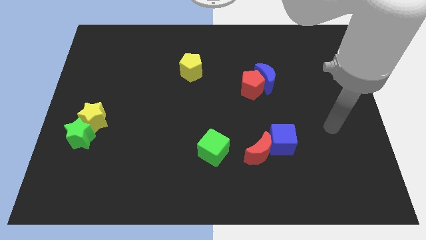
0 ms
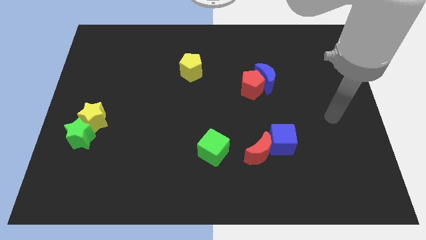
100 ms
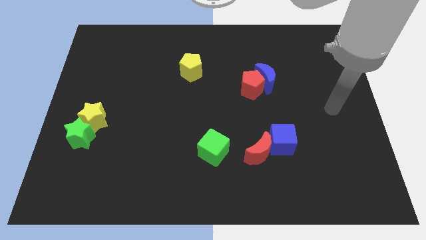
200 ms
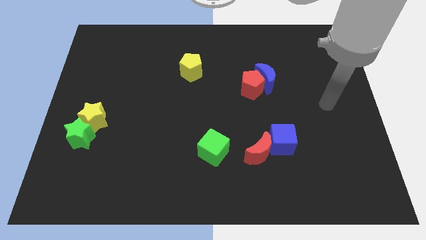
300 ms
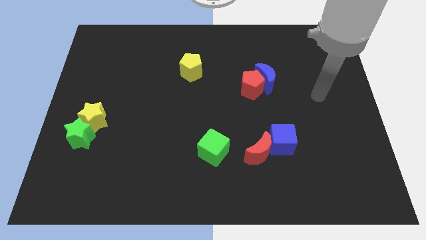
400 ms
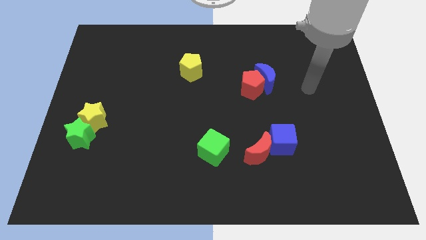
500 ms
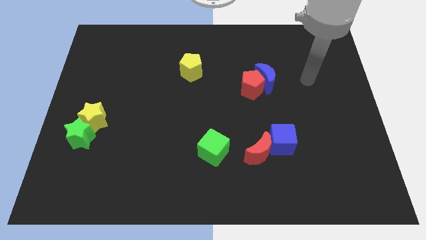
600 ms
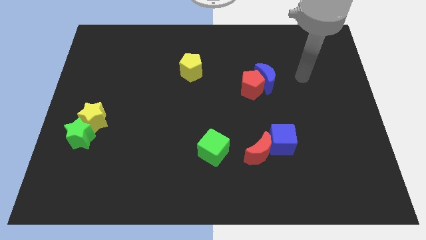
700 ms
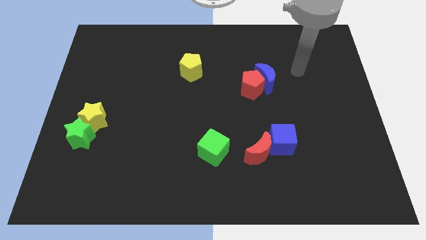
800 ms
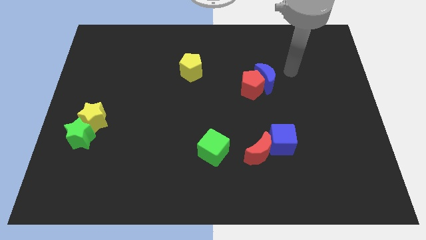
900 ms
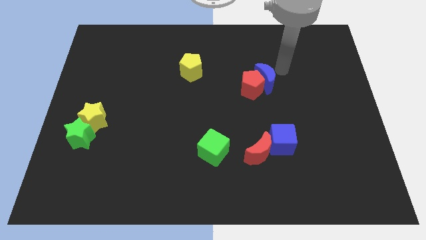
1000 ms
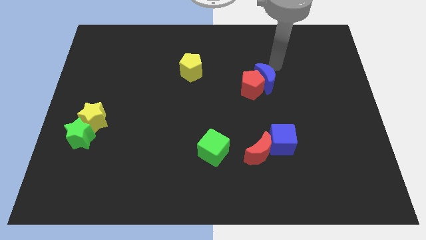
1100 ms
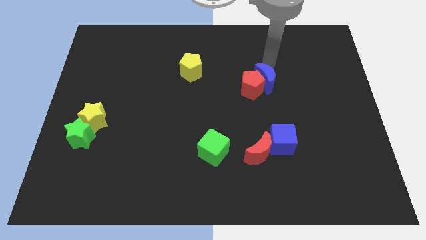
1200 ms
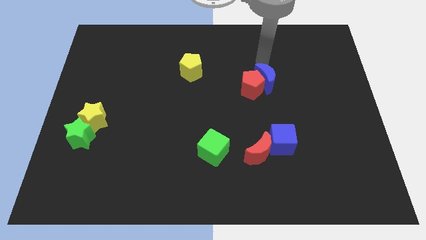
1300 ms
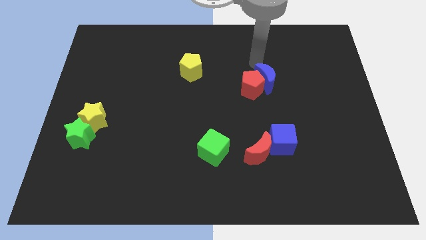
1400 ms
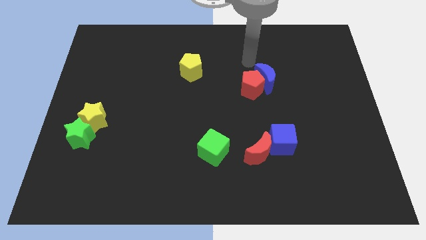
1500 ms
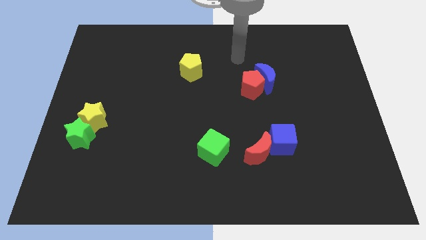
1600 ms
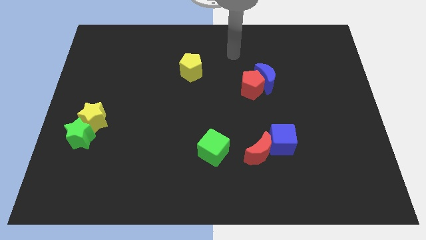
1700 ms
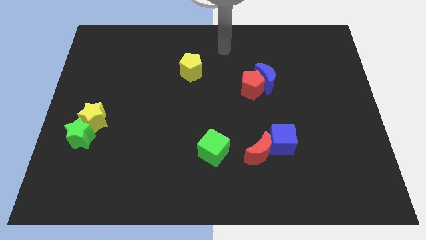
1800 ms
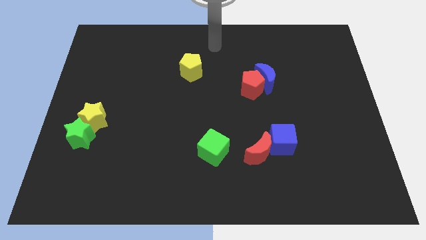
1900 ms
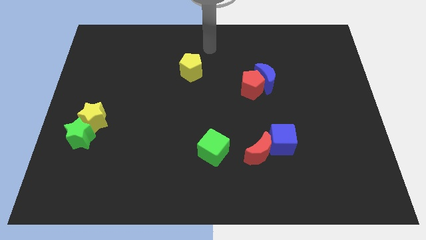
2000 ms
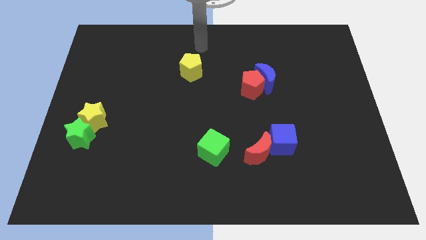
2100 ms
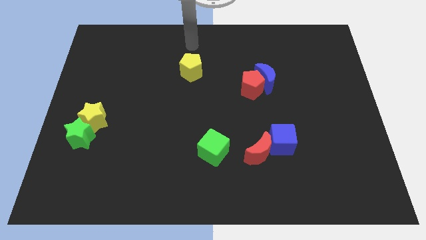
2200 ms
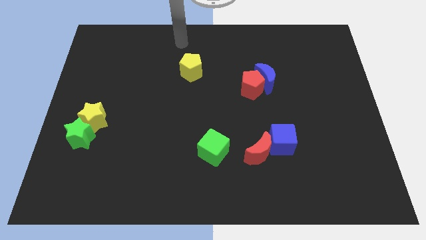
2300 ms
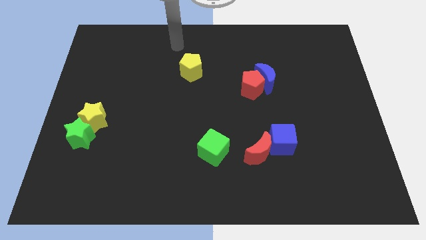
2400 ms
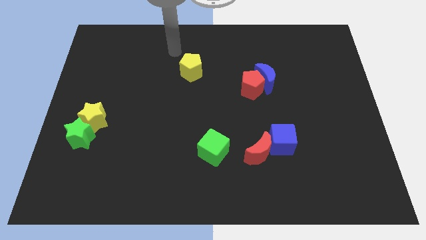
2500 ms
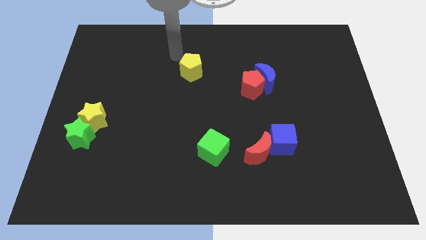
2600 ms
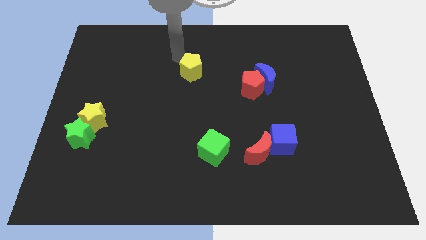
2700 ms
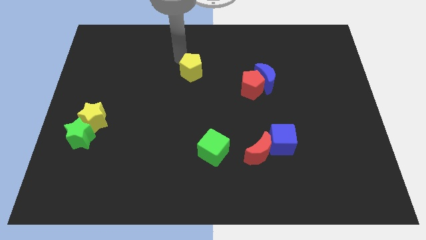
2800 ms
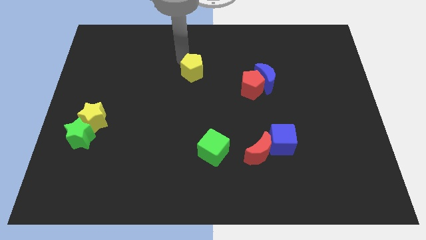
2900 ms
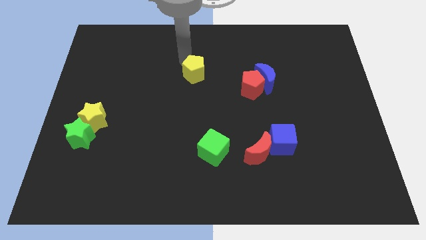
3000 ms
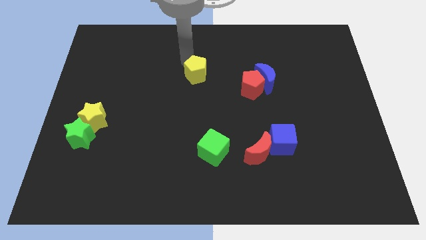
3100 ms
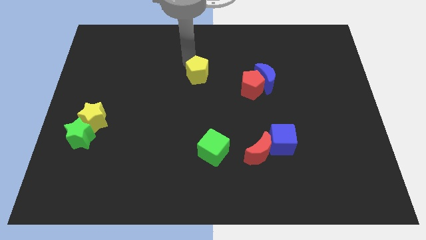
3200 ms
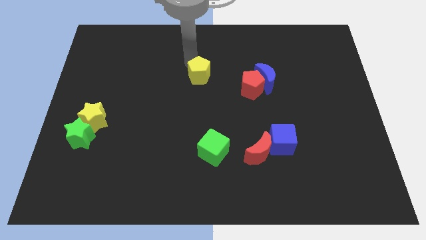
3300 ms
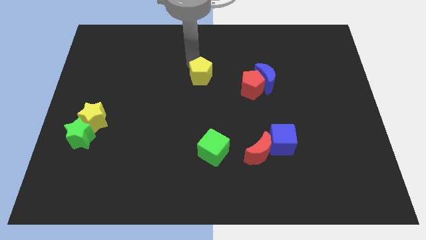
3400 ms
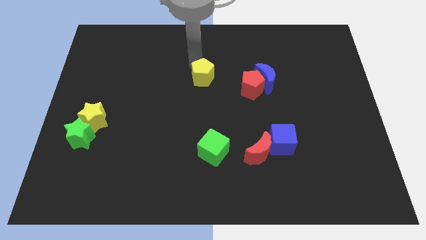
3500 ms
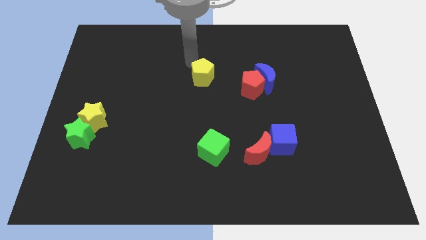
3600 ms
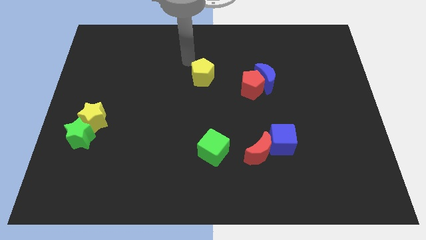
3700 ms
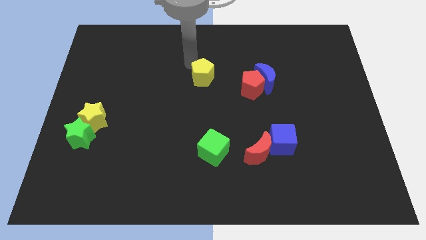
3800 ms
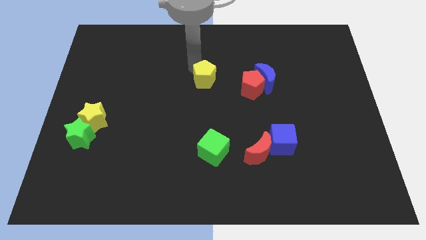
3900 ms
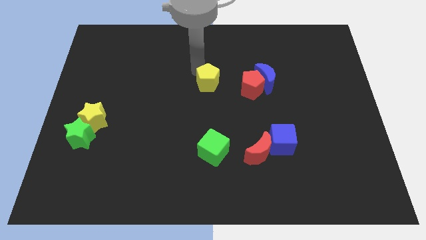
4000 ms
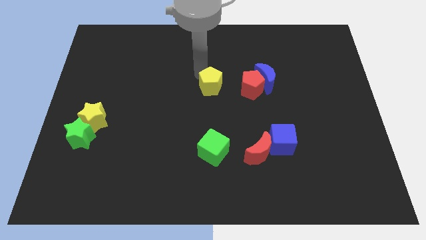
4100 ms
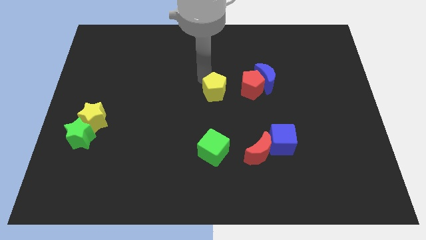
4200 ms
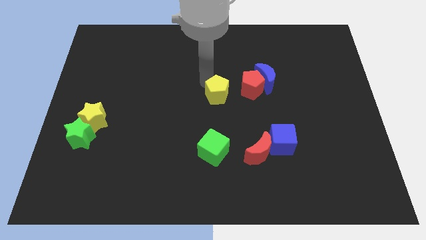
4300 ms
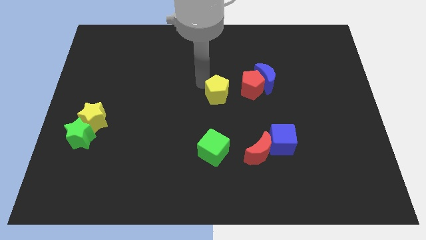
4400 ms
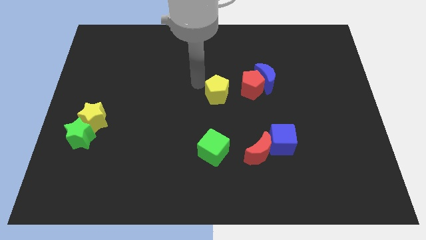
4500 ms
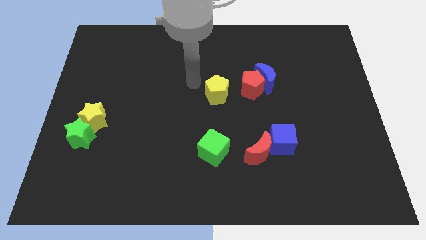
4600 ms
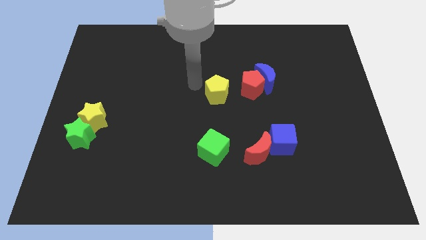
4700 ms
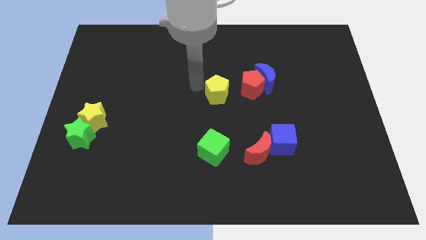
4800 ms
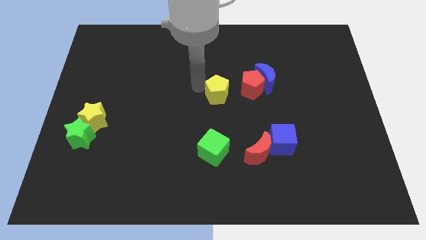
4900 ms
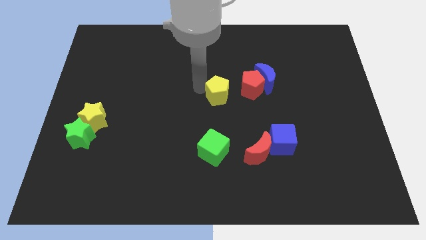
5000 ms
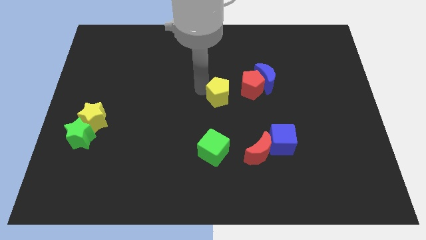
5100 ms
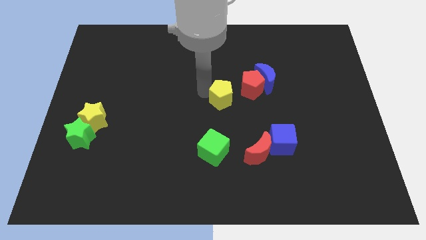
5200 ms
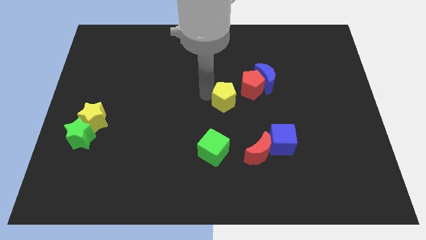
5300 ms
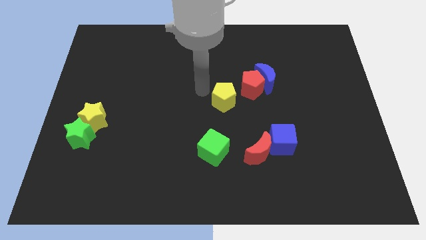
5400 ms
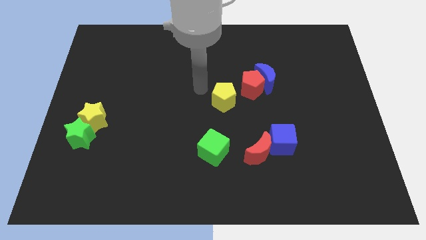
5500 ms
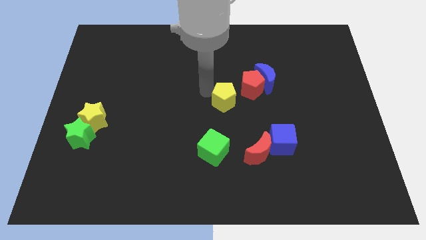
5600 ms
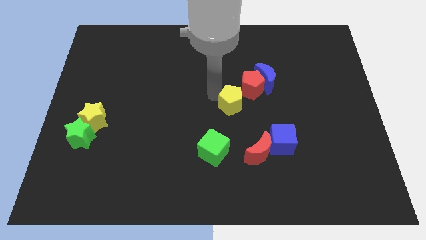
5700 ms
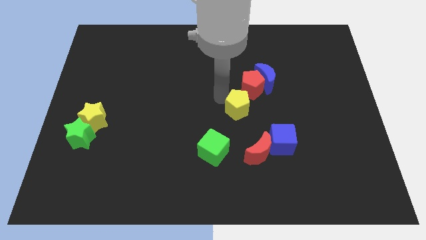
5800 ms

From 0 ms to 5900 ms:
push the yellow pentagon to the top of the red moon
